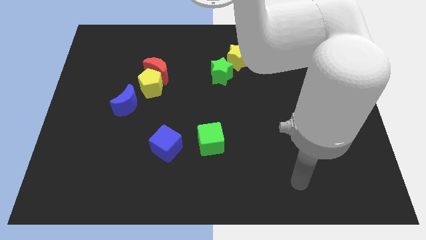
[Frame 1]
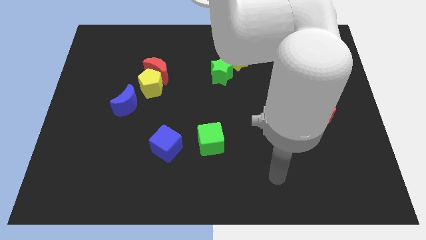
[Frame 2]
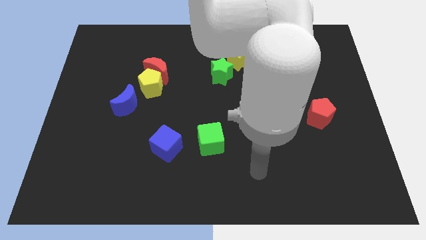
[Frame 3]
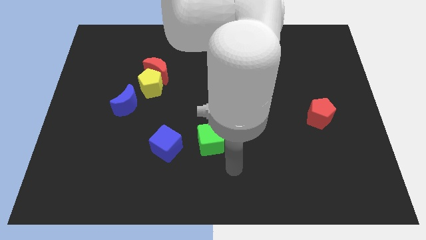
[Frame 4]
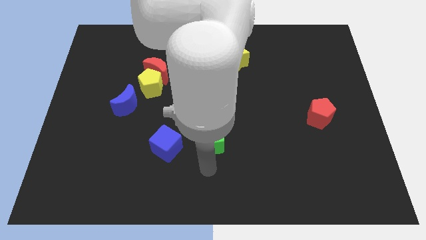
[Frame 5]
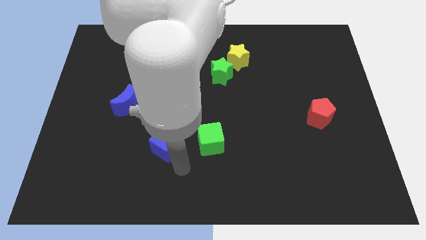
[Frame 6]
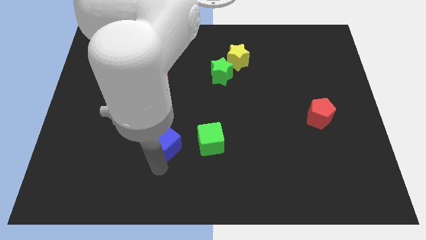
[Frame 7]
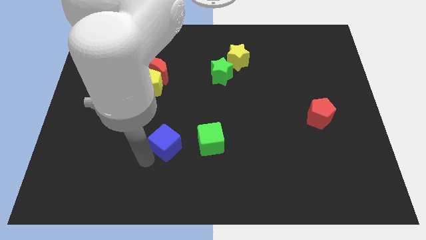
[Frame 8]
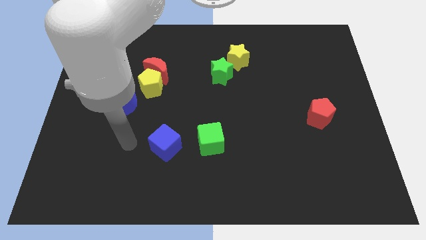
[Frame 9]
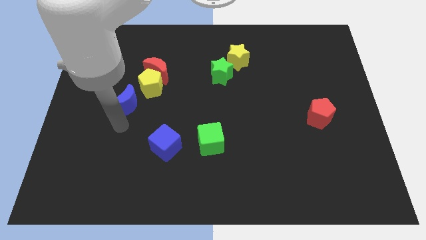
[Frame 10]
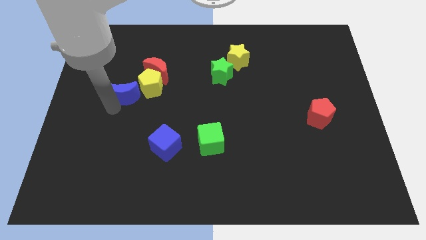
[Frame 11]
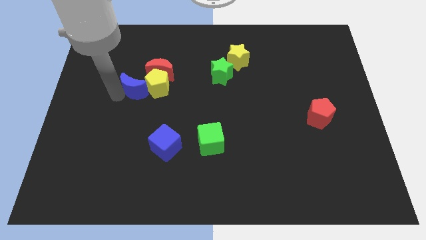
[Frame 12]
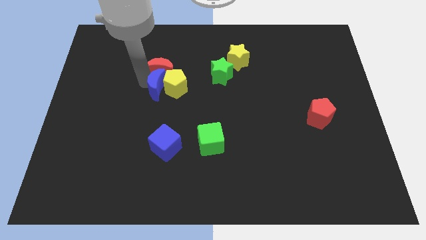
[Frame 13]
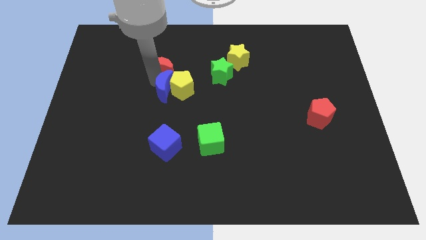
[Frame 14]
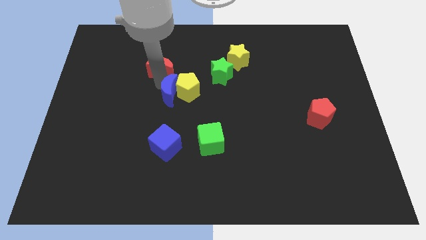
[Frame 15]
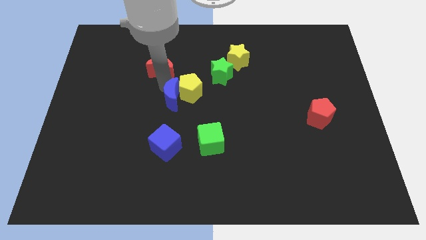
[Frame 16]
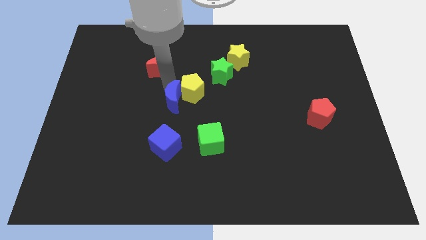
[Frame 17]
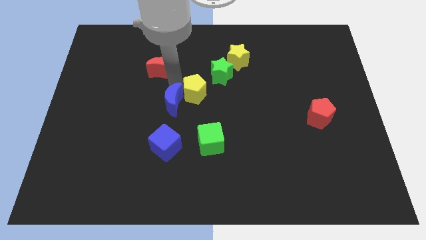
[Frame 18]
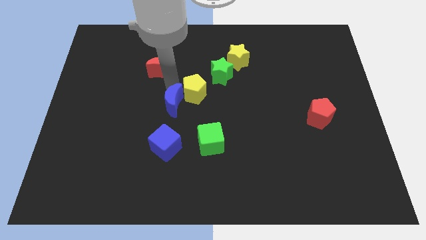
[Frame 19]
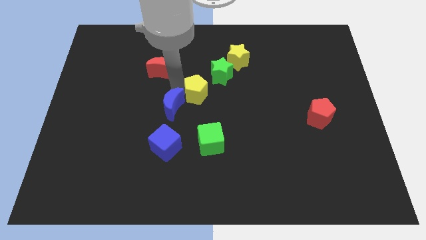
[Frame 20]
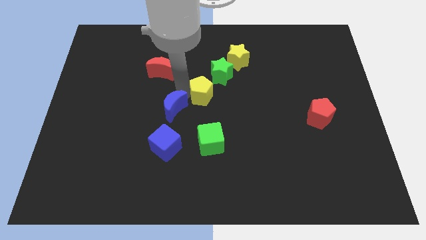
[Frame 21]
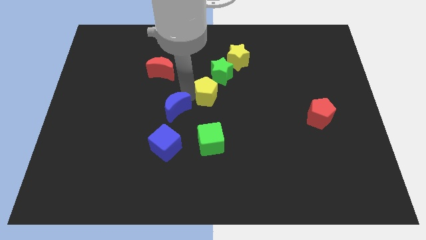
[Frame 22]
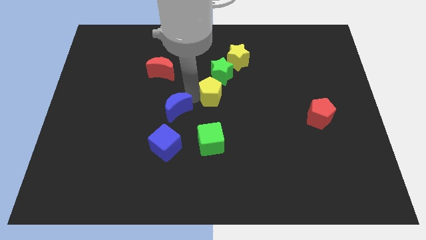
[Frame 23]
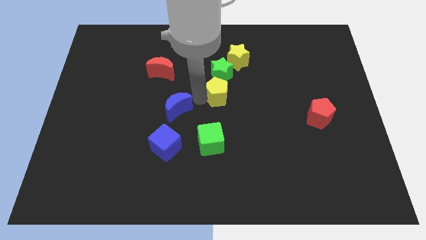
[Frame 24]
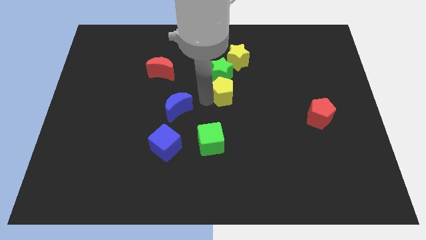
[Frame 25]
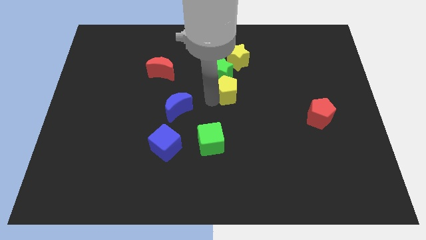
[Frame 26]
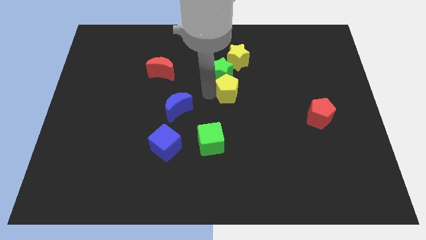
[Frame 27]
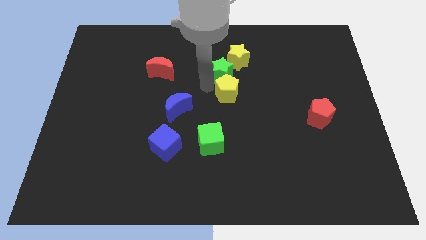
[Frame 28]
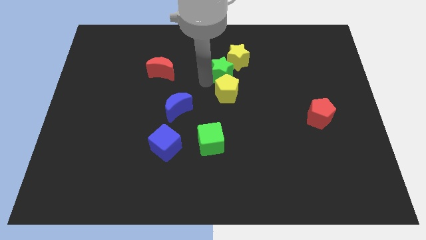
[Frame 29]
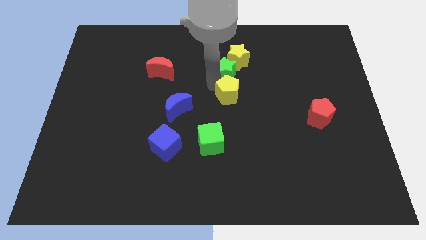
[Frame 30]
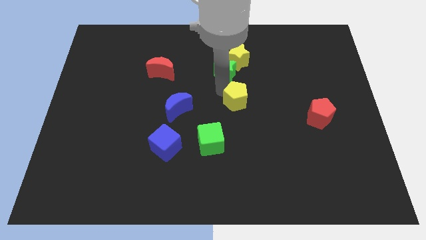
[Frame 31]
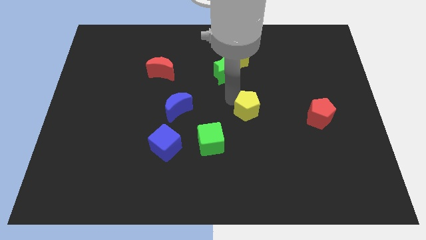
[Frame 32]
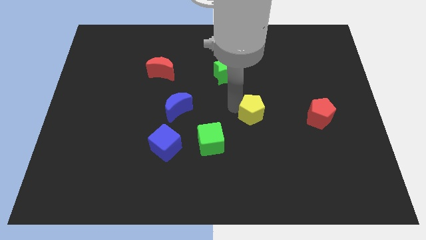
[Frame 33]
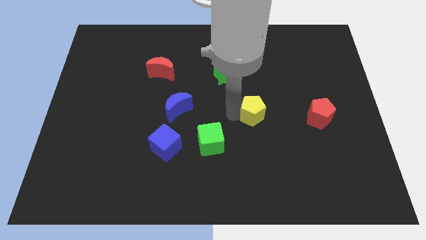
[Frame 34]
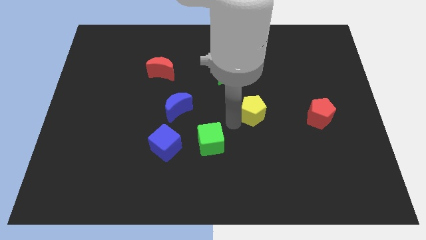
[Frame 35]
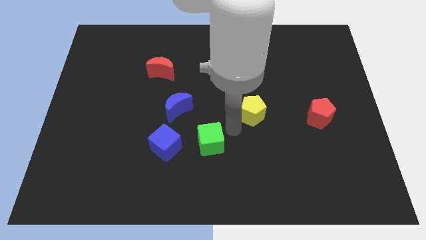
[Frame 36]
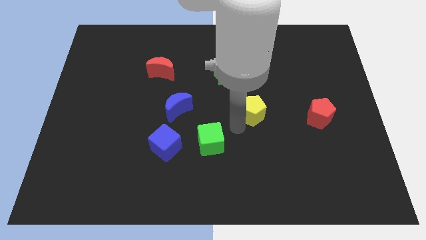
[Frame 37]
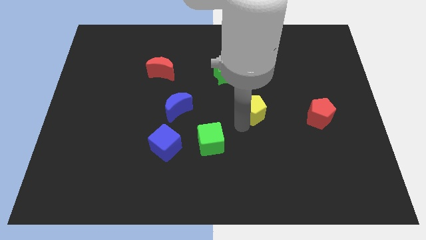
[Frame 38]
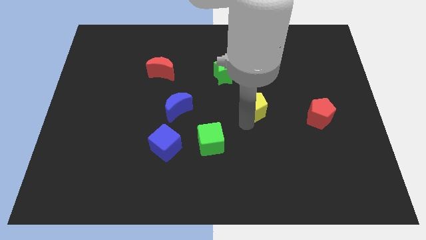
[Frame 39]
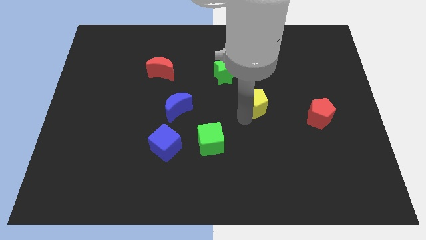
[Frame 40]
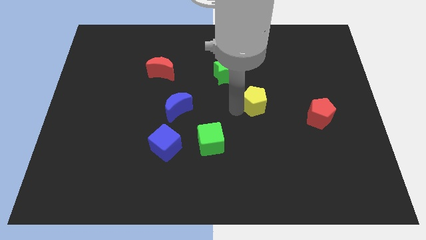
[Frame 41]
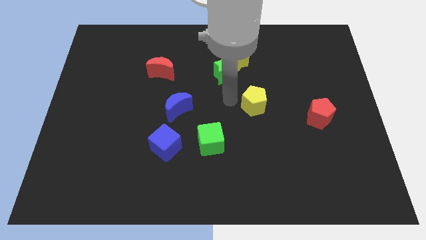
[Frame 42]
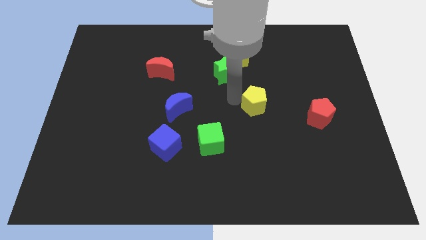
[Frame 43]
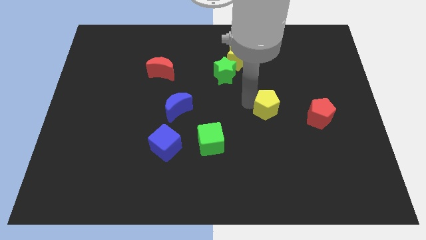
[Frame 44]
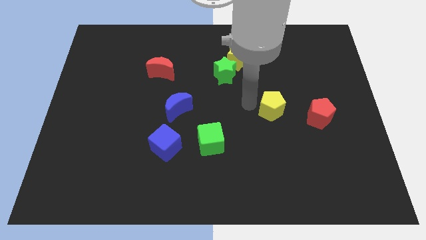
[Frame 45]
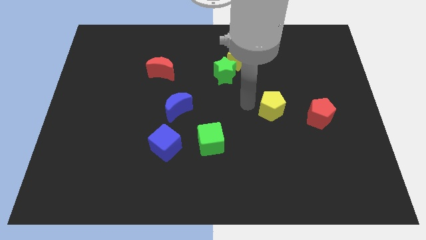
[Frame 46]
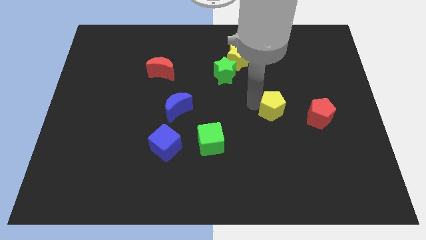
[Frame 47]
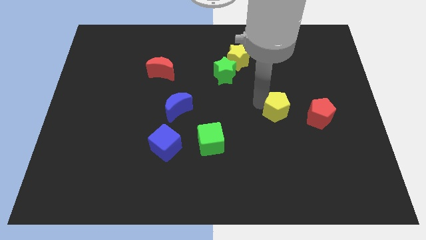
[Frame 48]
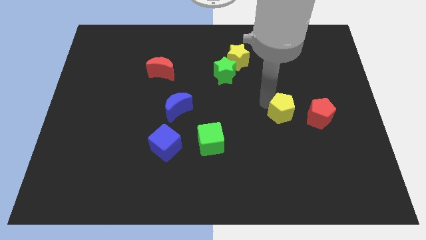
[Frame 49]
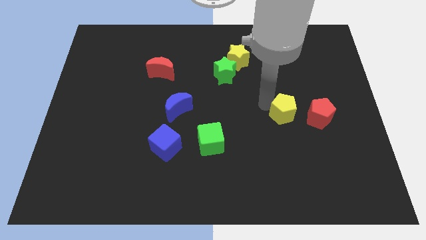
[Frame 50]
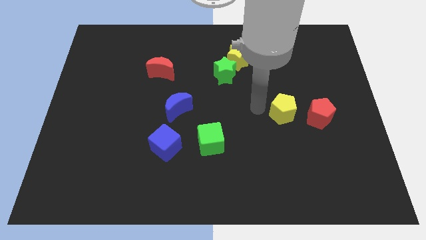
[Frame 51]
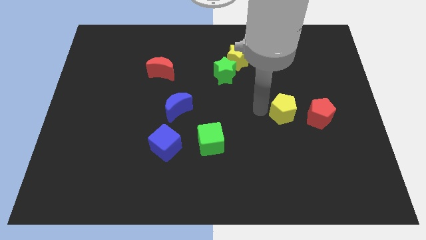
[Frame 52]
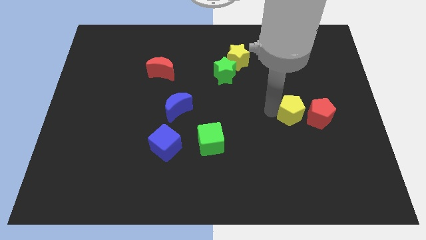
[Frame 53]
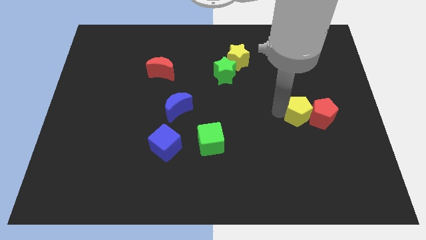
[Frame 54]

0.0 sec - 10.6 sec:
move the yellow pentagon to the red pentagon
